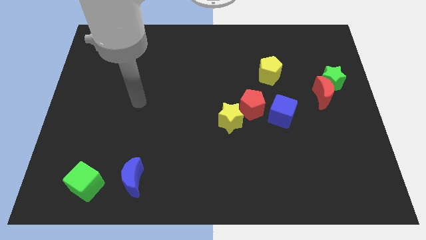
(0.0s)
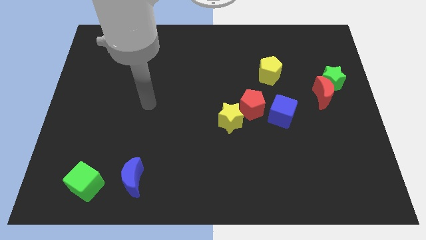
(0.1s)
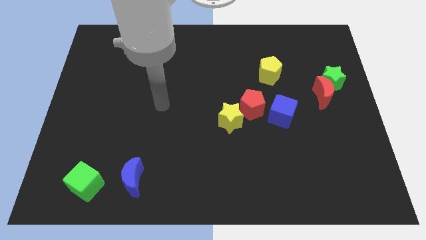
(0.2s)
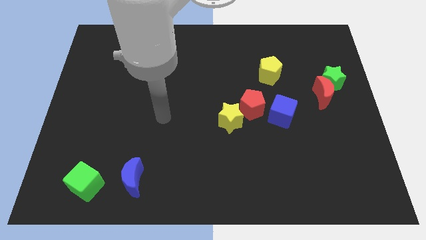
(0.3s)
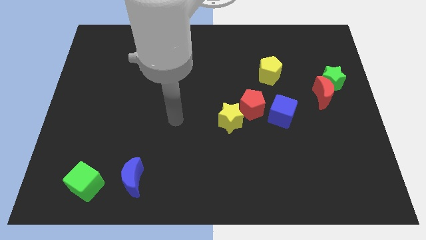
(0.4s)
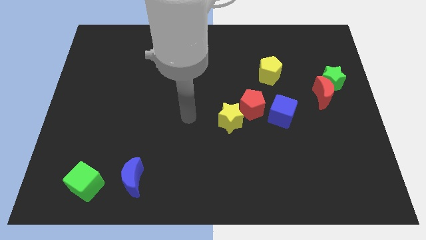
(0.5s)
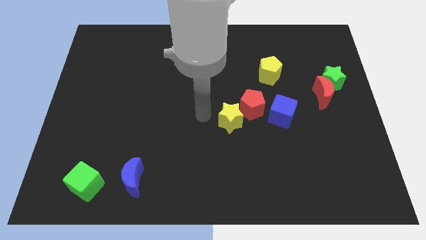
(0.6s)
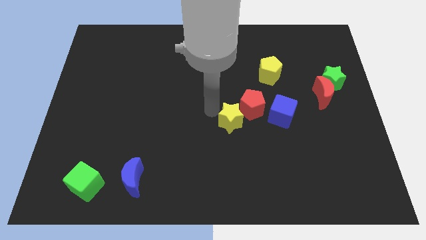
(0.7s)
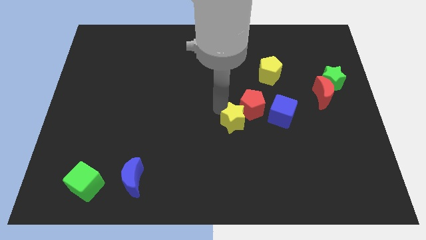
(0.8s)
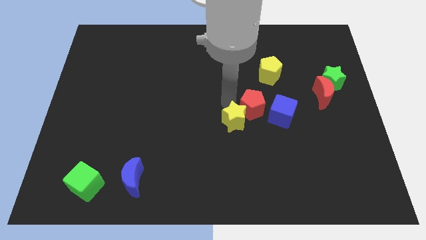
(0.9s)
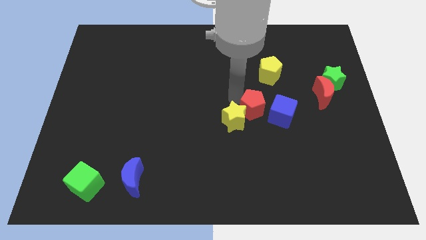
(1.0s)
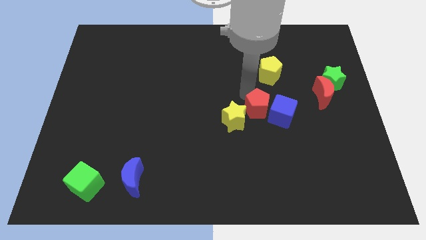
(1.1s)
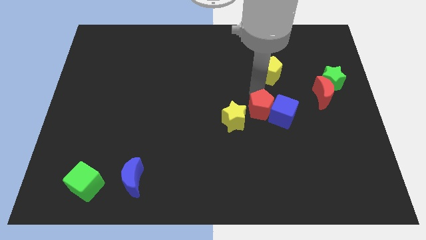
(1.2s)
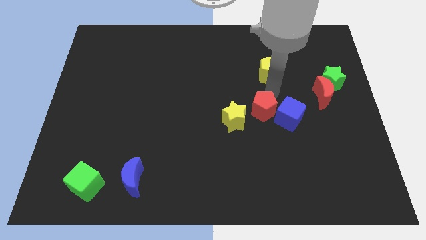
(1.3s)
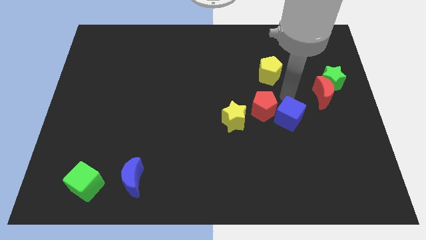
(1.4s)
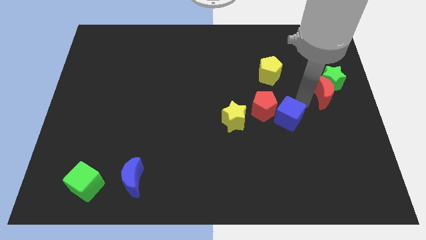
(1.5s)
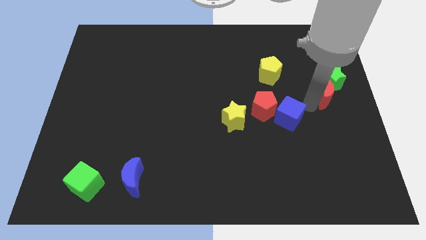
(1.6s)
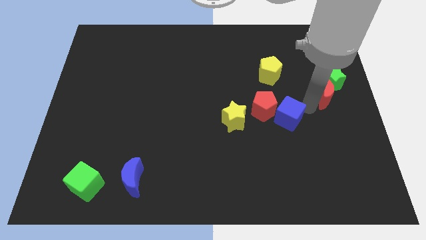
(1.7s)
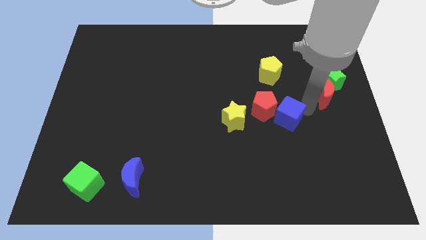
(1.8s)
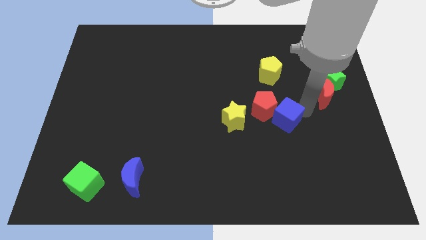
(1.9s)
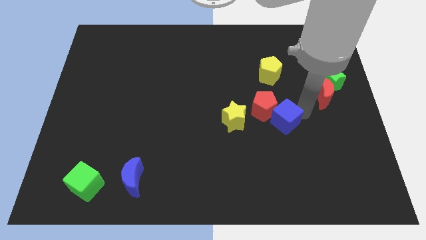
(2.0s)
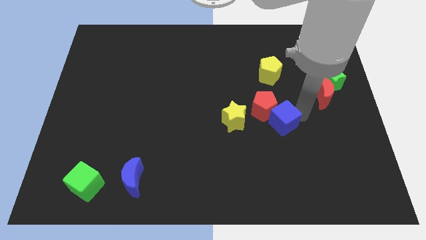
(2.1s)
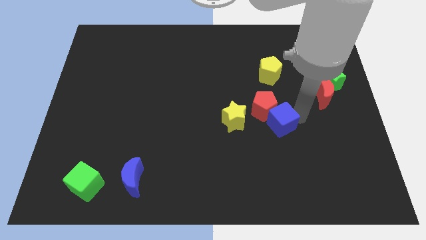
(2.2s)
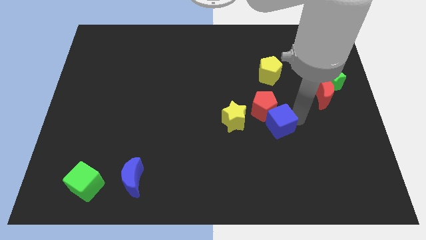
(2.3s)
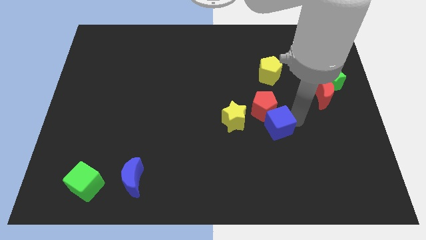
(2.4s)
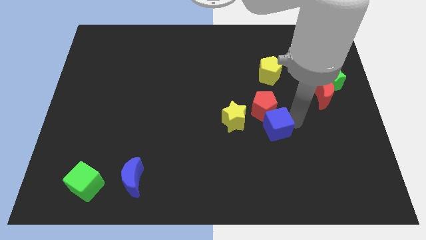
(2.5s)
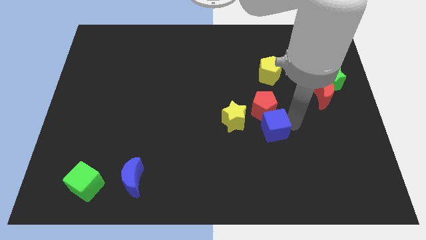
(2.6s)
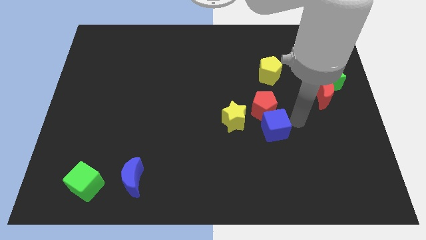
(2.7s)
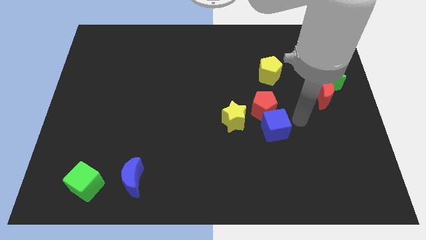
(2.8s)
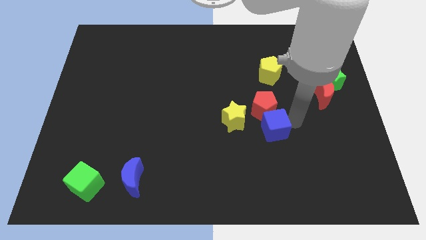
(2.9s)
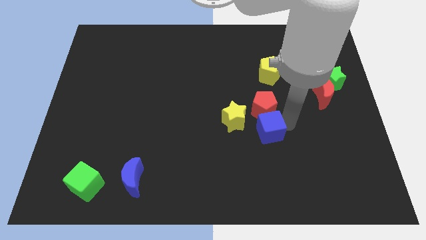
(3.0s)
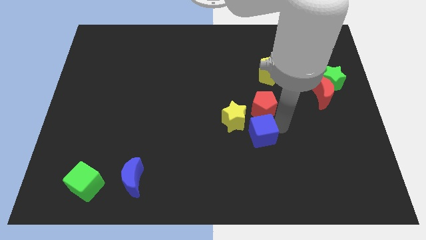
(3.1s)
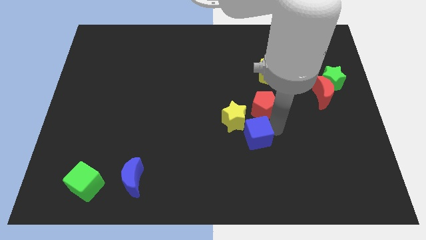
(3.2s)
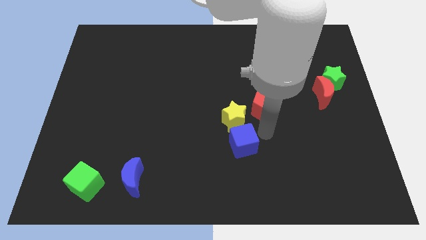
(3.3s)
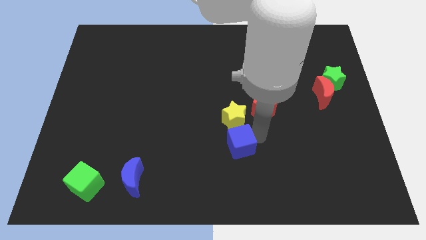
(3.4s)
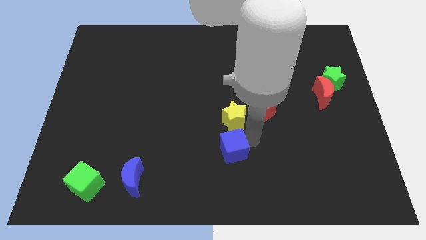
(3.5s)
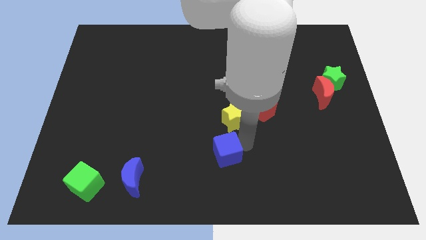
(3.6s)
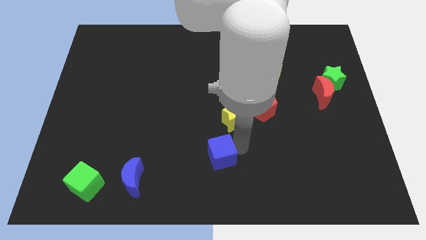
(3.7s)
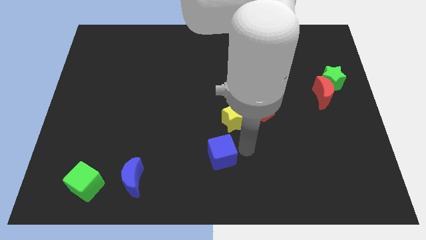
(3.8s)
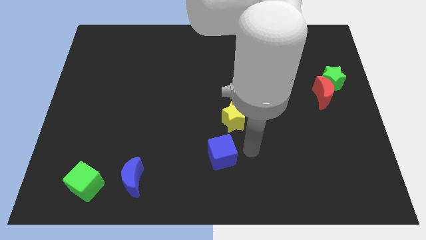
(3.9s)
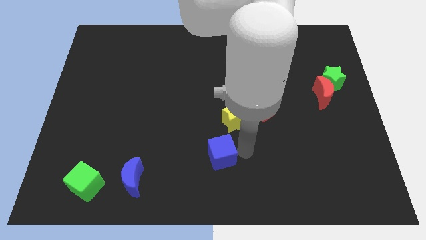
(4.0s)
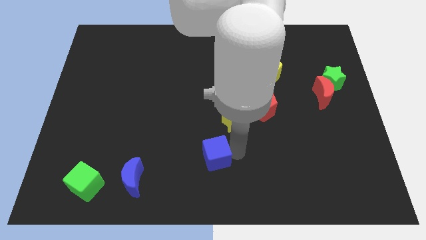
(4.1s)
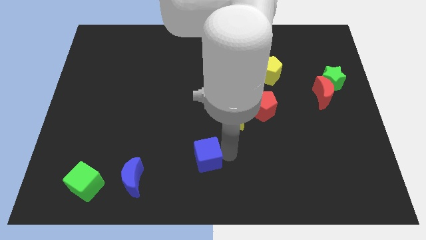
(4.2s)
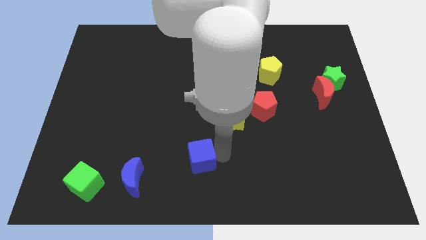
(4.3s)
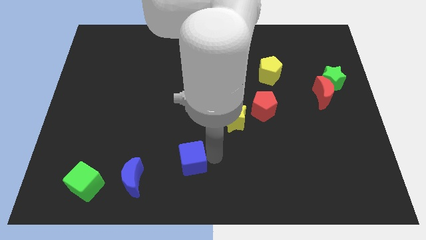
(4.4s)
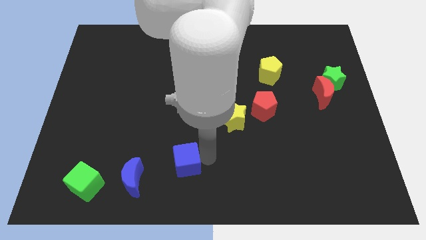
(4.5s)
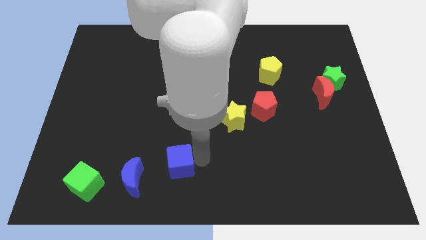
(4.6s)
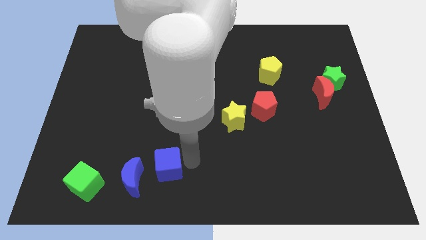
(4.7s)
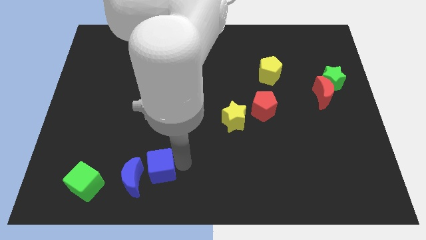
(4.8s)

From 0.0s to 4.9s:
put the blue cube close to the blue moon

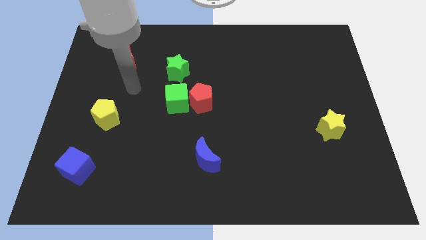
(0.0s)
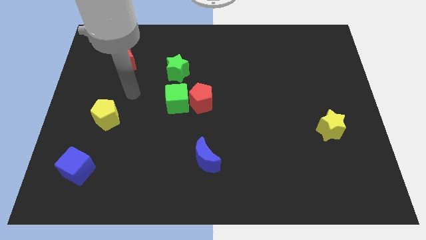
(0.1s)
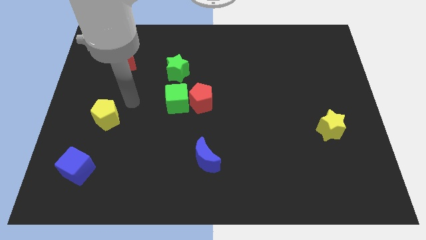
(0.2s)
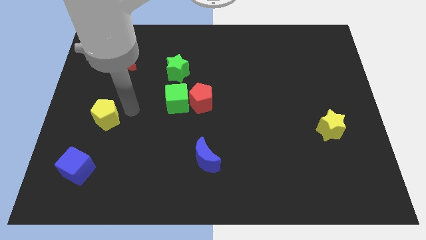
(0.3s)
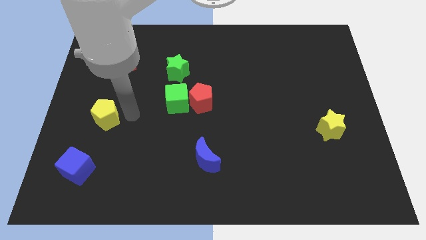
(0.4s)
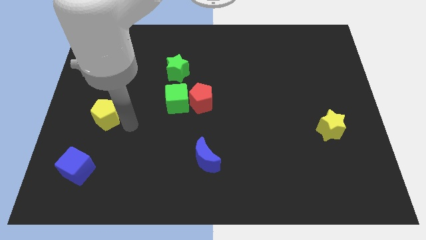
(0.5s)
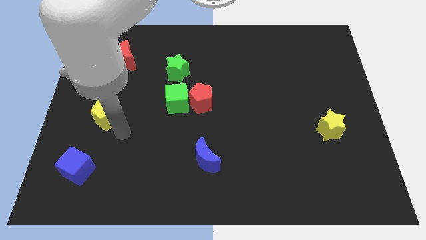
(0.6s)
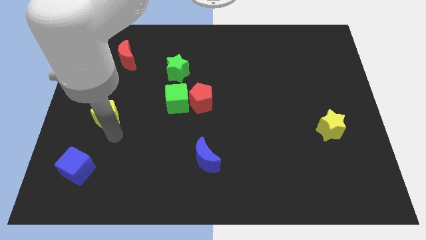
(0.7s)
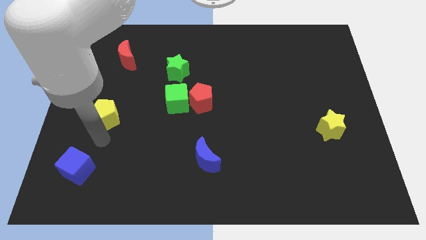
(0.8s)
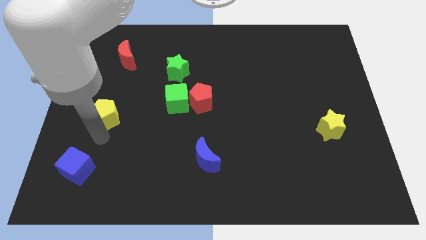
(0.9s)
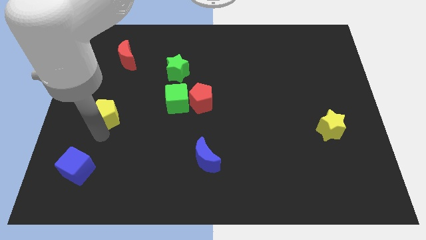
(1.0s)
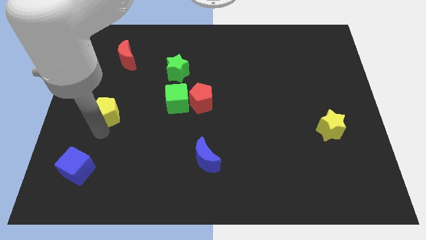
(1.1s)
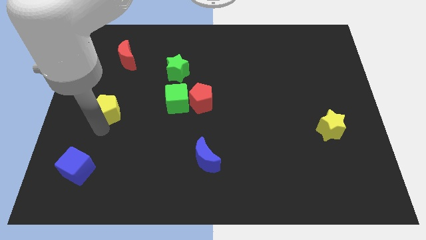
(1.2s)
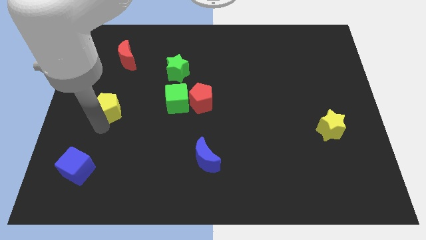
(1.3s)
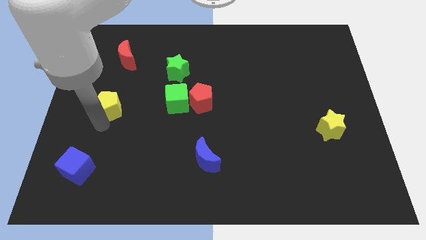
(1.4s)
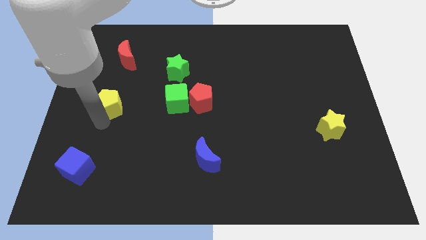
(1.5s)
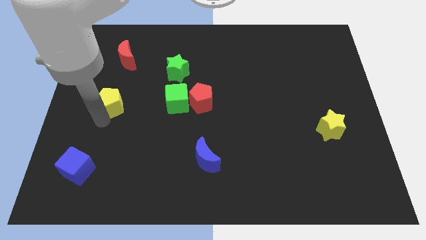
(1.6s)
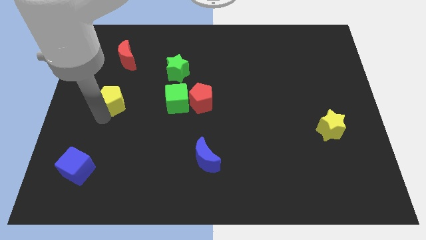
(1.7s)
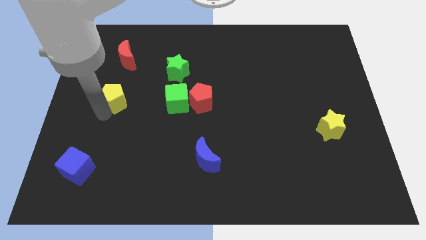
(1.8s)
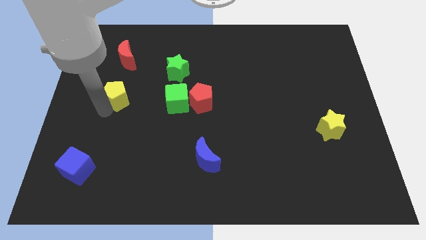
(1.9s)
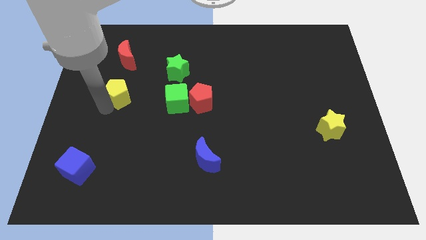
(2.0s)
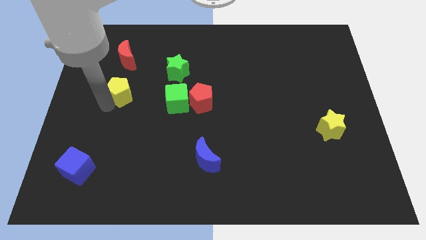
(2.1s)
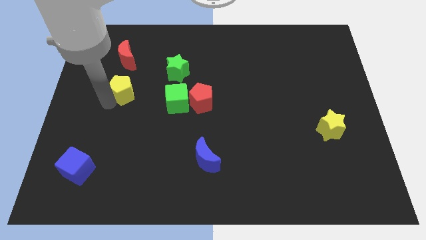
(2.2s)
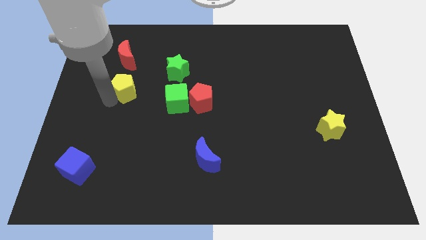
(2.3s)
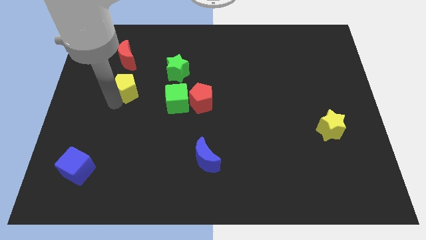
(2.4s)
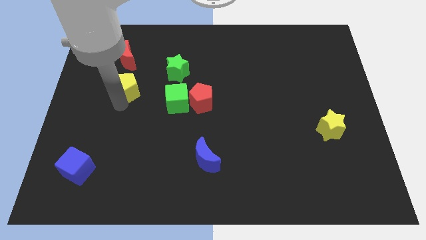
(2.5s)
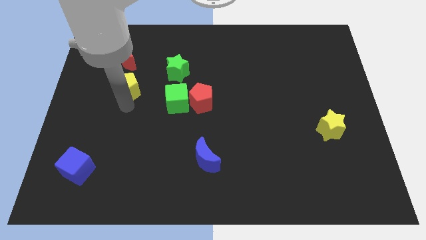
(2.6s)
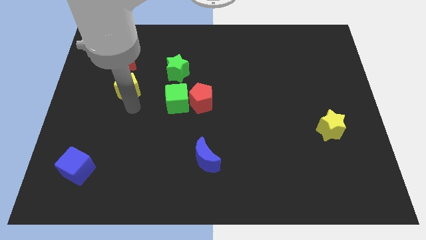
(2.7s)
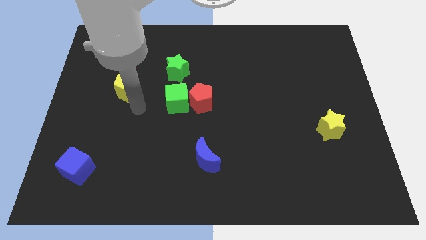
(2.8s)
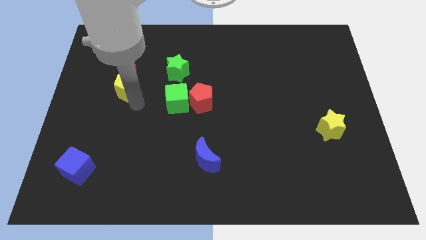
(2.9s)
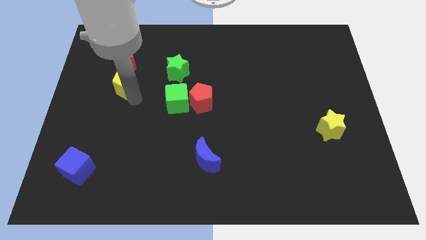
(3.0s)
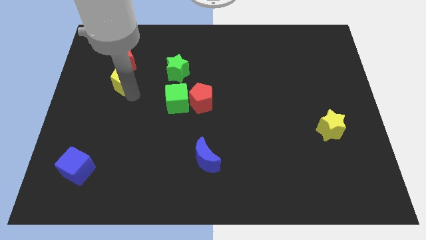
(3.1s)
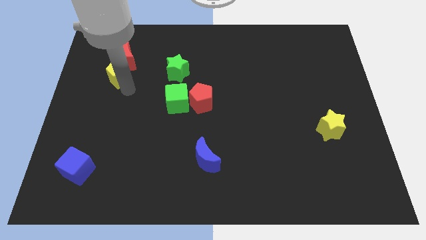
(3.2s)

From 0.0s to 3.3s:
slide the yellow pentagon towards the red moon
